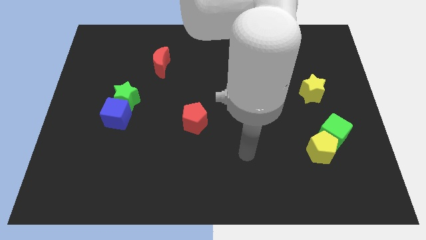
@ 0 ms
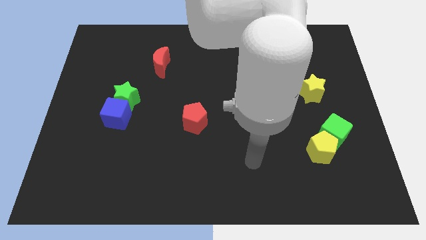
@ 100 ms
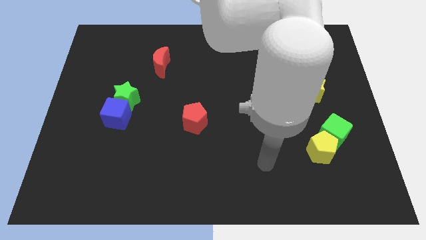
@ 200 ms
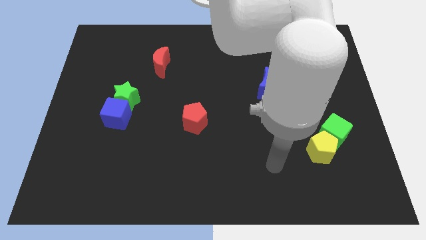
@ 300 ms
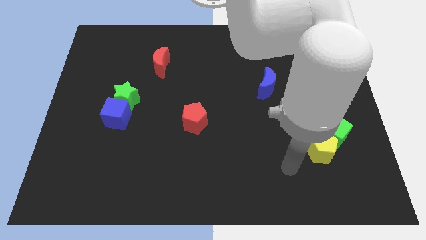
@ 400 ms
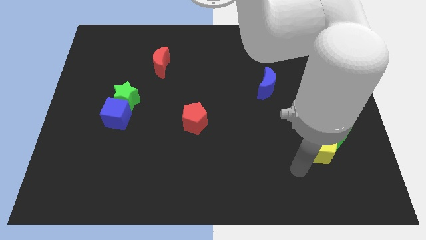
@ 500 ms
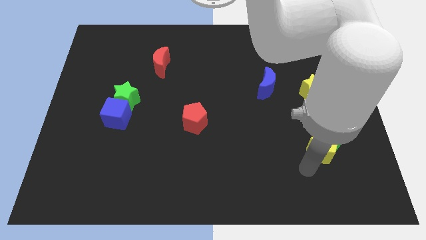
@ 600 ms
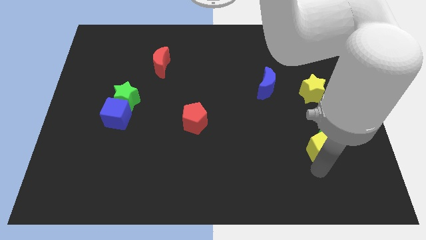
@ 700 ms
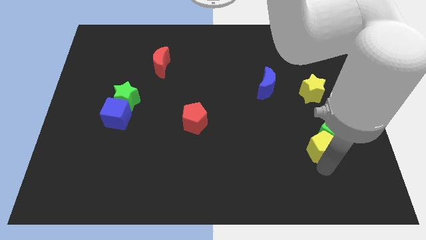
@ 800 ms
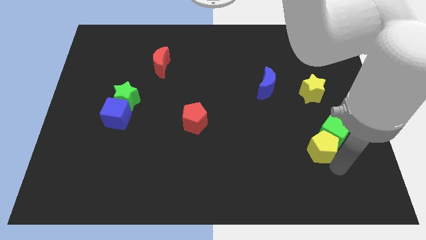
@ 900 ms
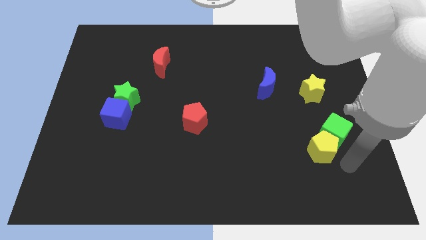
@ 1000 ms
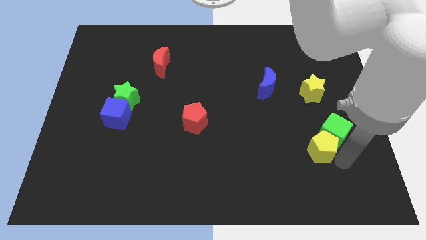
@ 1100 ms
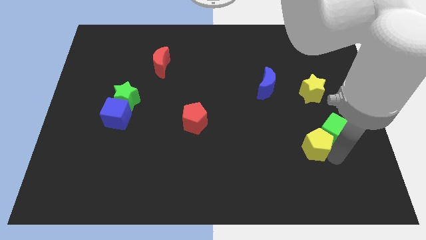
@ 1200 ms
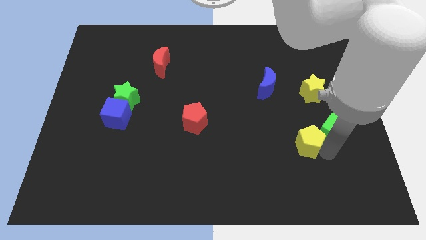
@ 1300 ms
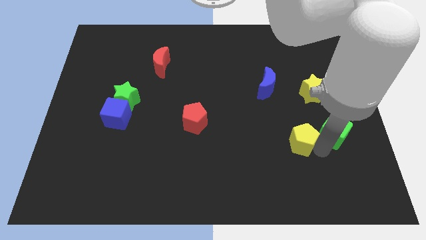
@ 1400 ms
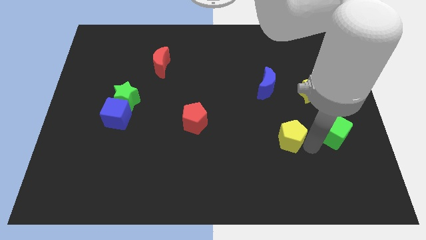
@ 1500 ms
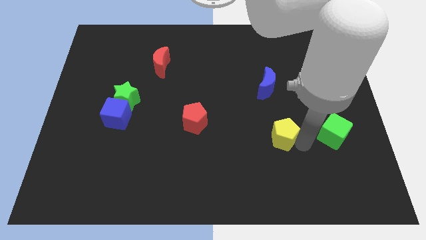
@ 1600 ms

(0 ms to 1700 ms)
slide the yellow pentagon diagonally upwards and to the left a little bit

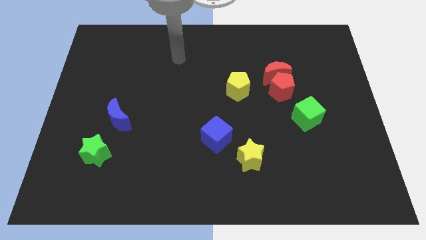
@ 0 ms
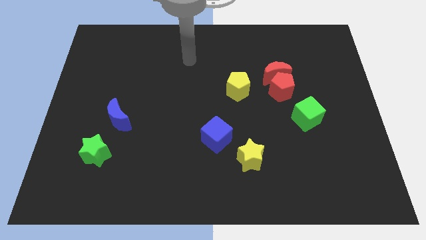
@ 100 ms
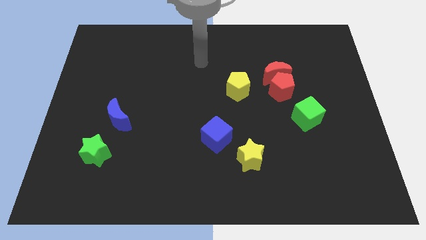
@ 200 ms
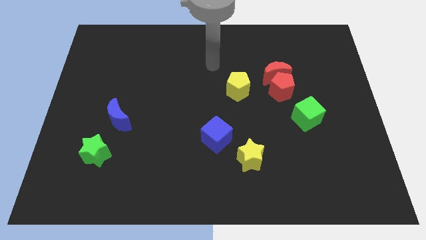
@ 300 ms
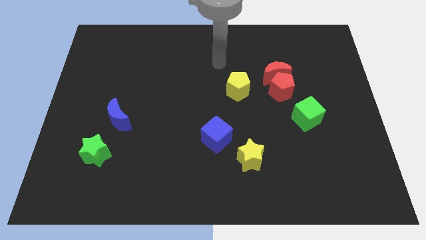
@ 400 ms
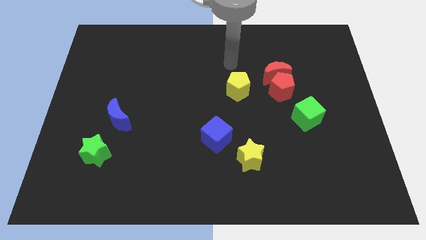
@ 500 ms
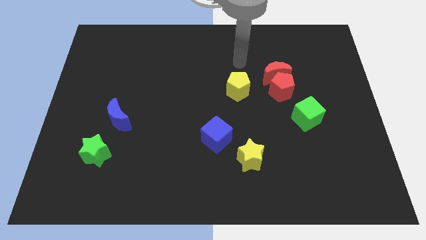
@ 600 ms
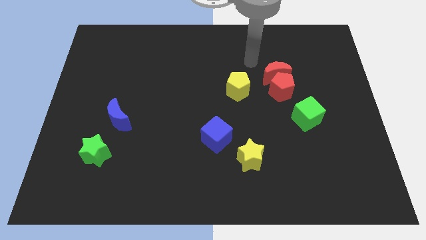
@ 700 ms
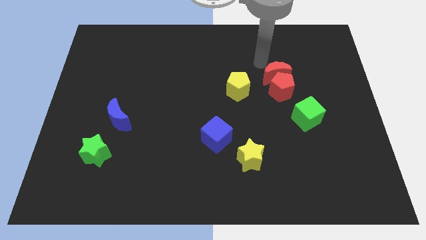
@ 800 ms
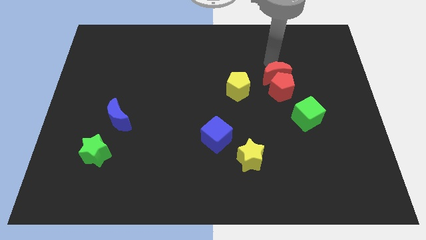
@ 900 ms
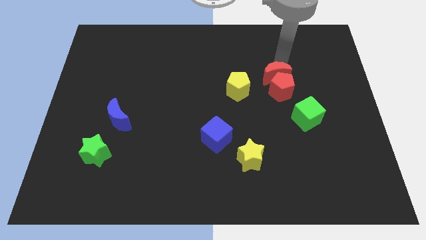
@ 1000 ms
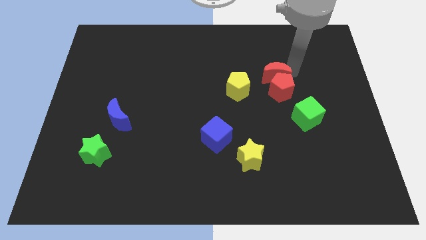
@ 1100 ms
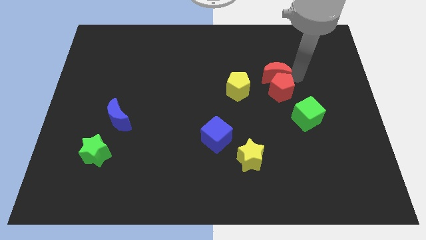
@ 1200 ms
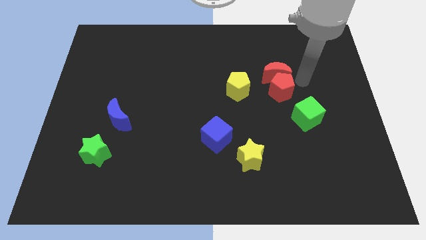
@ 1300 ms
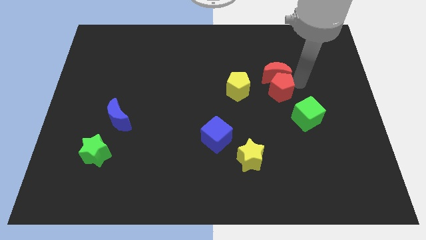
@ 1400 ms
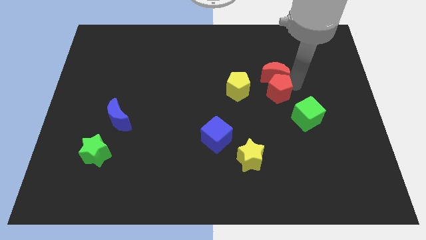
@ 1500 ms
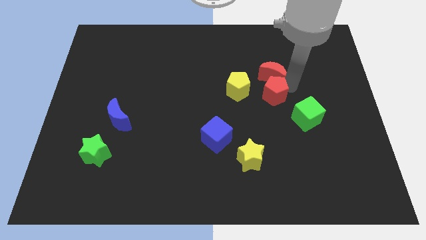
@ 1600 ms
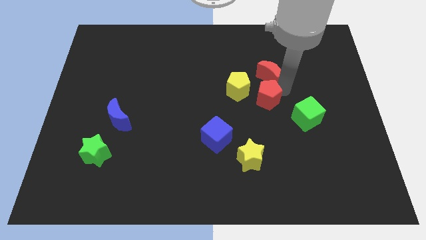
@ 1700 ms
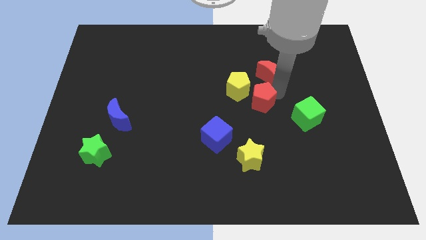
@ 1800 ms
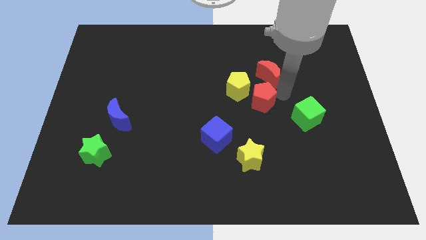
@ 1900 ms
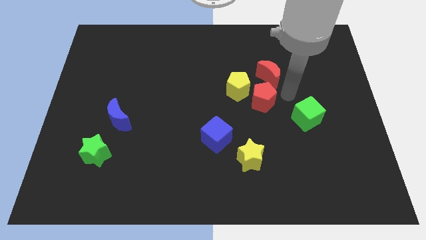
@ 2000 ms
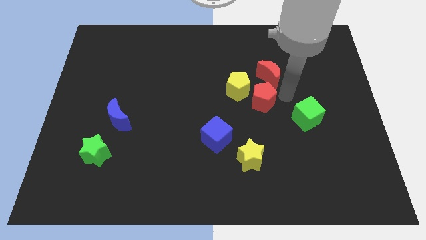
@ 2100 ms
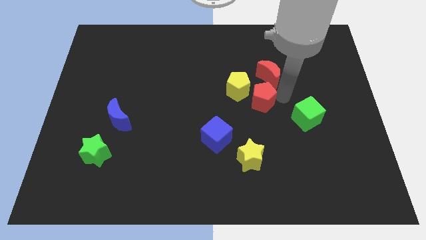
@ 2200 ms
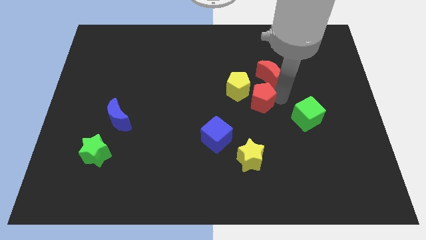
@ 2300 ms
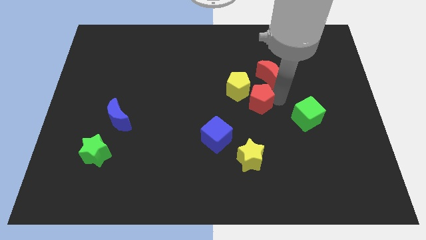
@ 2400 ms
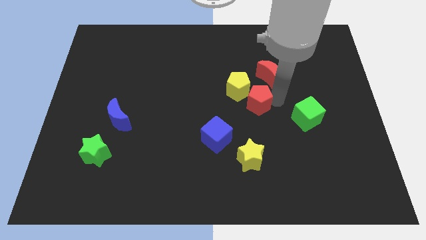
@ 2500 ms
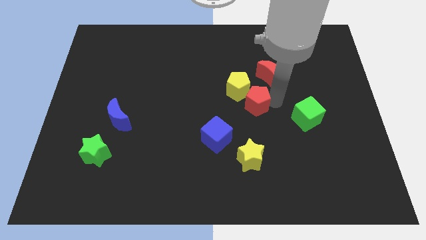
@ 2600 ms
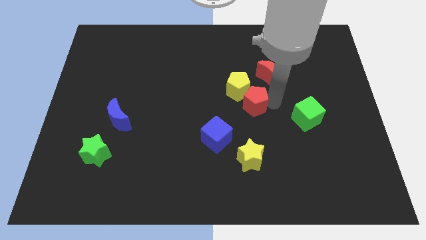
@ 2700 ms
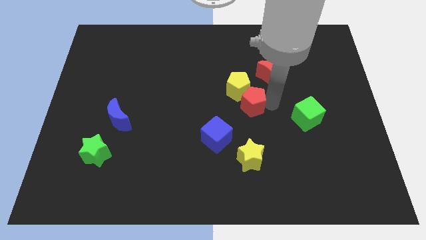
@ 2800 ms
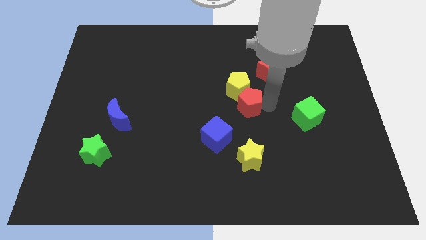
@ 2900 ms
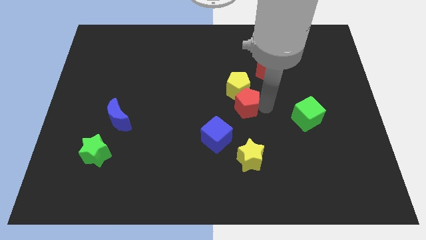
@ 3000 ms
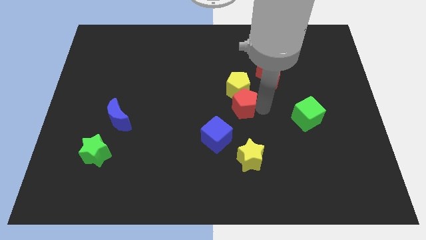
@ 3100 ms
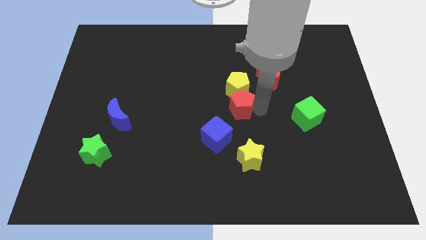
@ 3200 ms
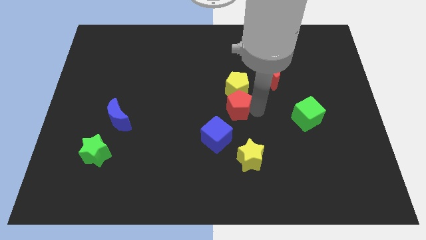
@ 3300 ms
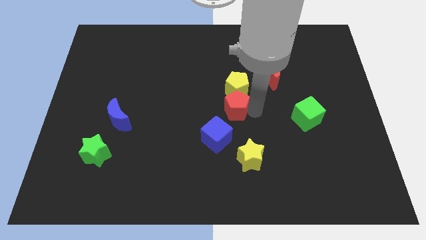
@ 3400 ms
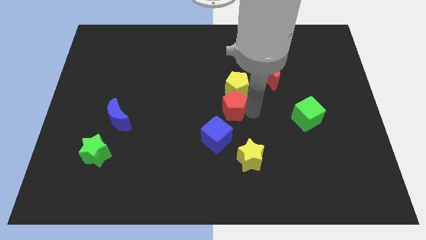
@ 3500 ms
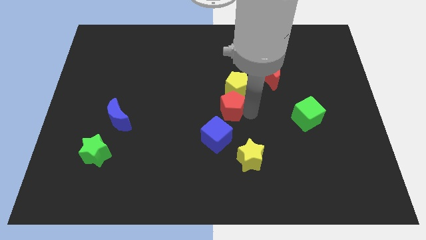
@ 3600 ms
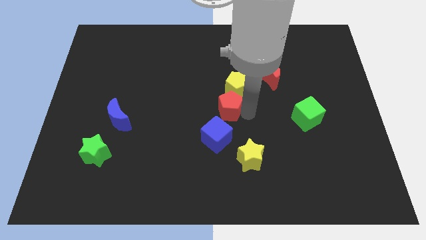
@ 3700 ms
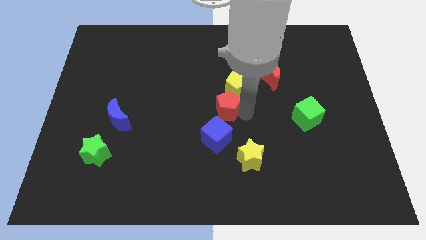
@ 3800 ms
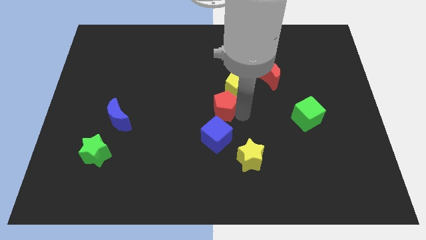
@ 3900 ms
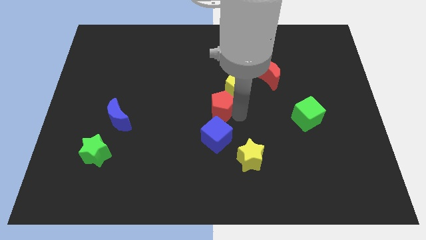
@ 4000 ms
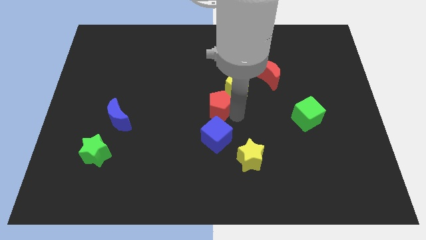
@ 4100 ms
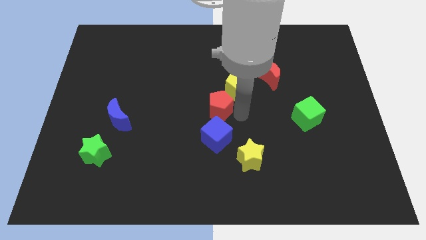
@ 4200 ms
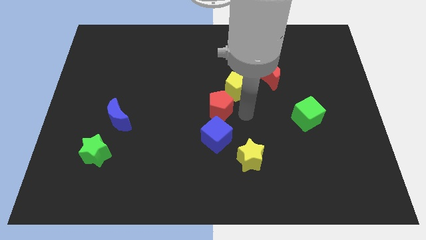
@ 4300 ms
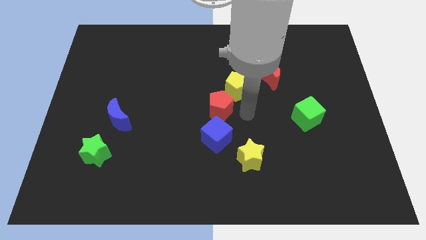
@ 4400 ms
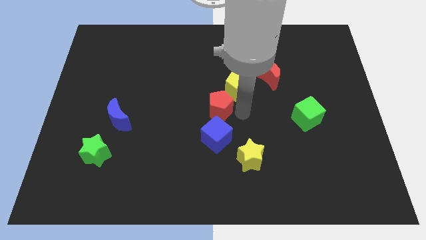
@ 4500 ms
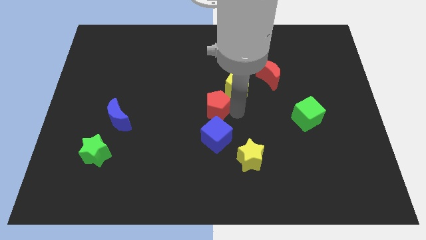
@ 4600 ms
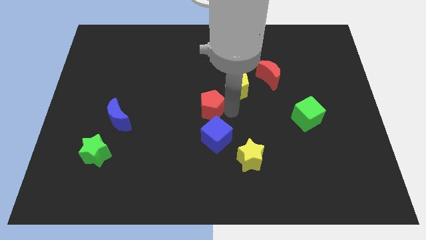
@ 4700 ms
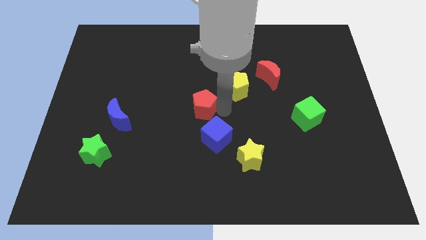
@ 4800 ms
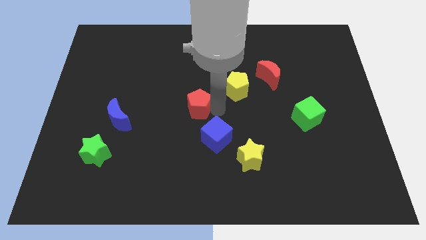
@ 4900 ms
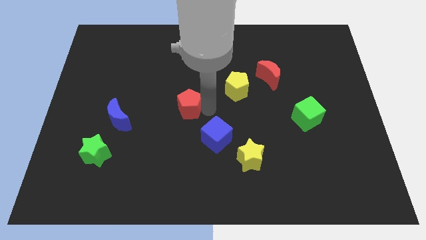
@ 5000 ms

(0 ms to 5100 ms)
move the red pentagon to the left

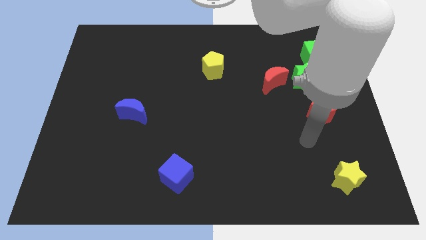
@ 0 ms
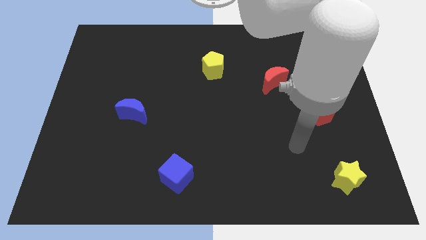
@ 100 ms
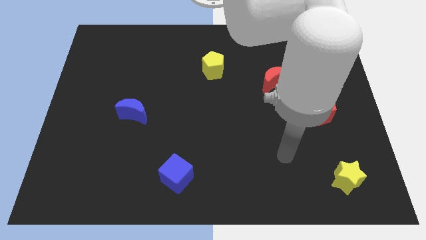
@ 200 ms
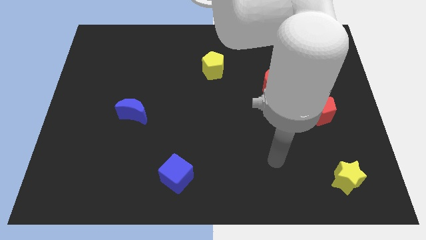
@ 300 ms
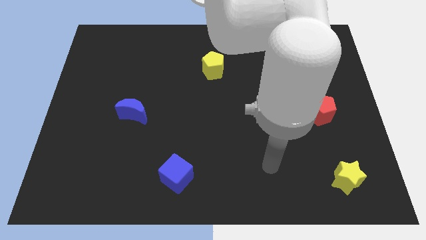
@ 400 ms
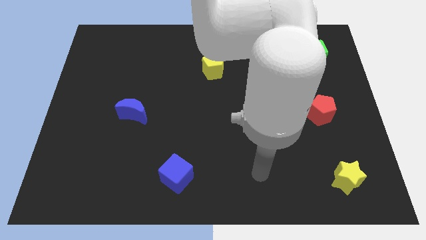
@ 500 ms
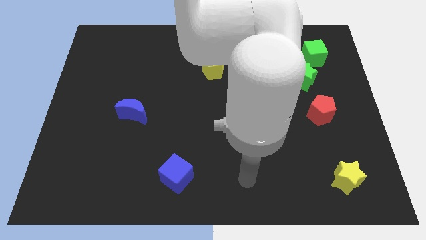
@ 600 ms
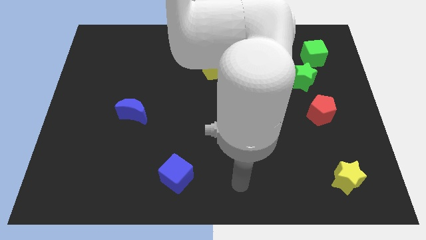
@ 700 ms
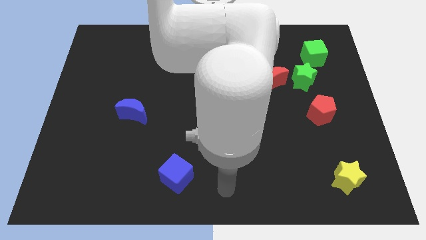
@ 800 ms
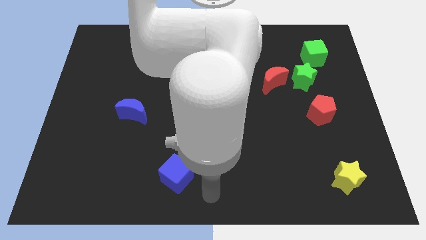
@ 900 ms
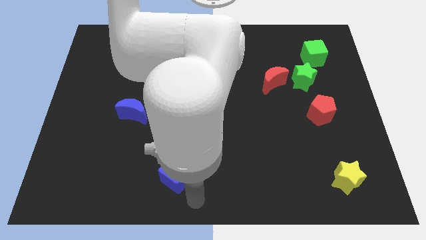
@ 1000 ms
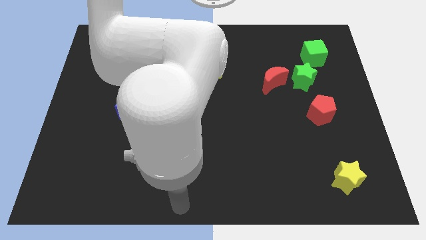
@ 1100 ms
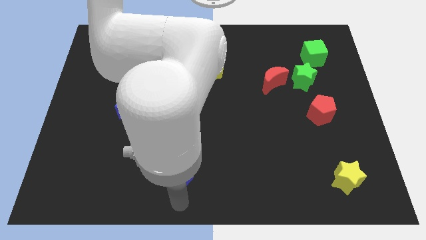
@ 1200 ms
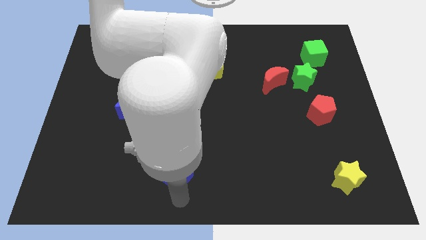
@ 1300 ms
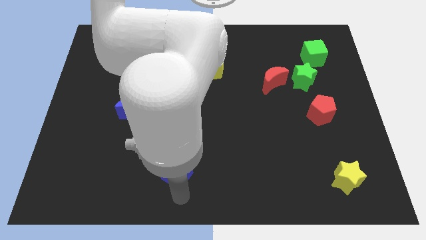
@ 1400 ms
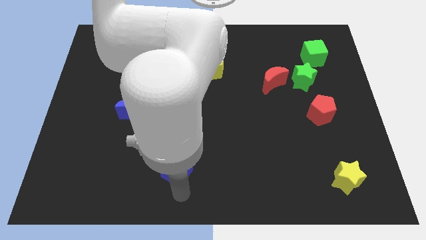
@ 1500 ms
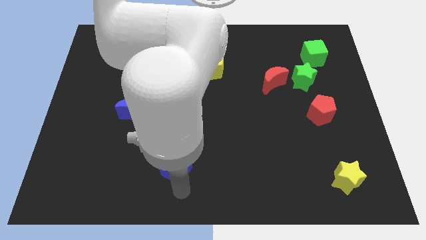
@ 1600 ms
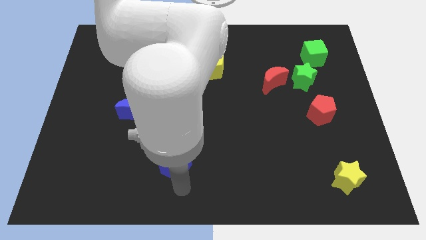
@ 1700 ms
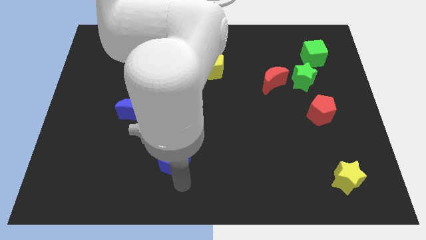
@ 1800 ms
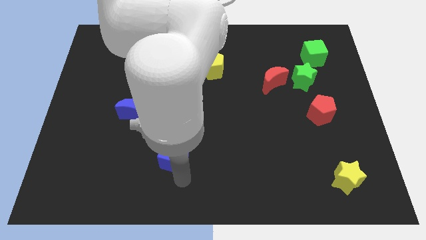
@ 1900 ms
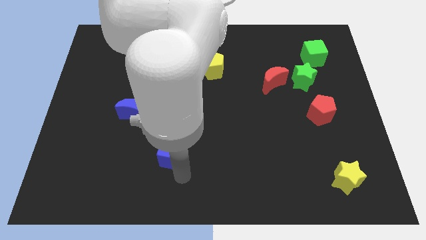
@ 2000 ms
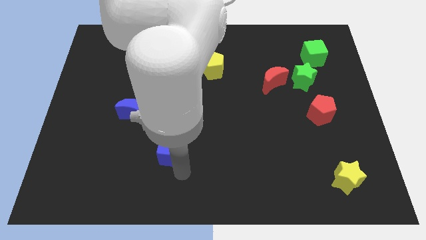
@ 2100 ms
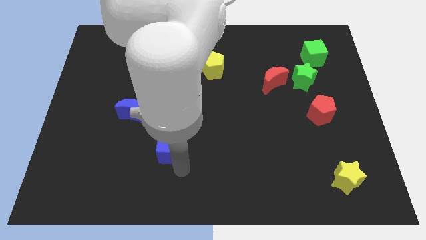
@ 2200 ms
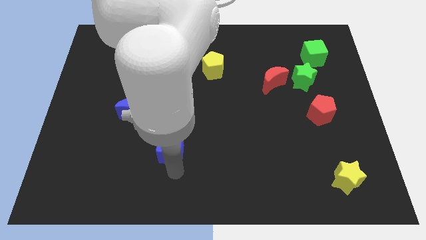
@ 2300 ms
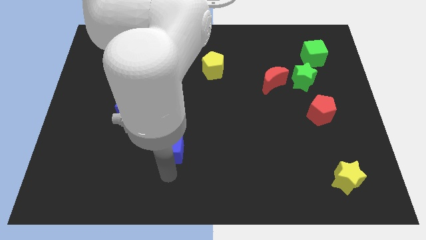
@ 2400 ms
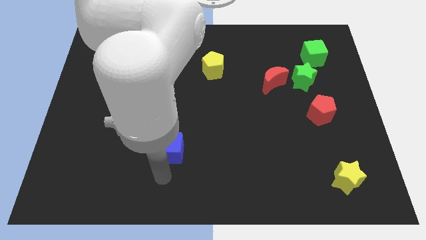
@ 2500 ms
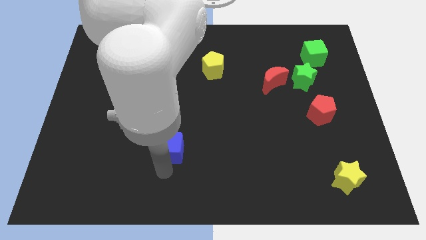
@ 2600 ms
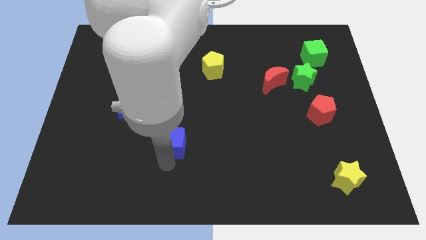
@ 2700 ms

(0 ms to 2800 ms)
push the blue cube slightly up
